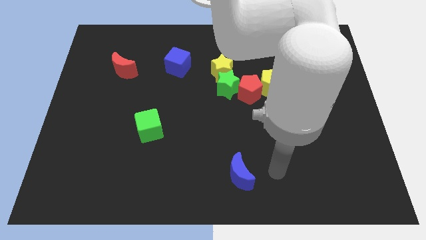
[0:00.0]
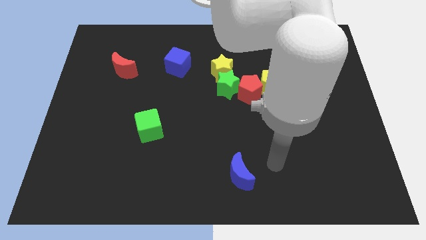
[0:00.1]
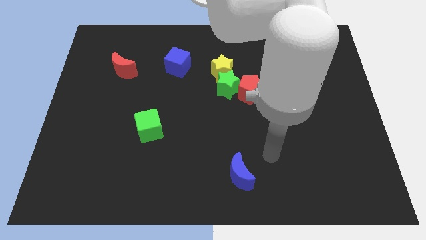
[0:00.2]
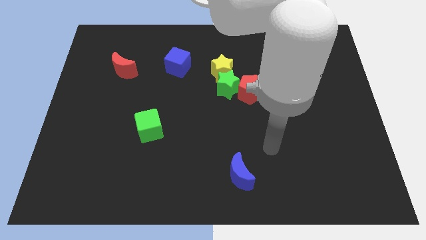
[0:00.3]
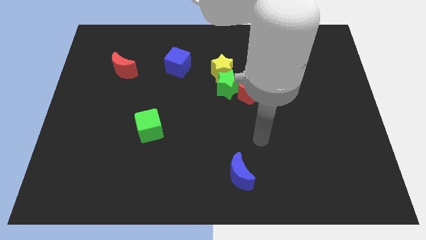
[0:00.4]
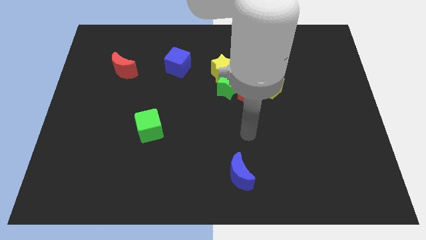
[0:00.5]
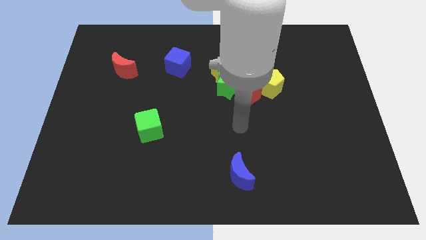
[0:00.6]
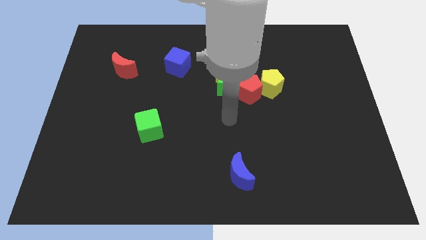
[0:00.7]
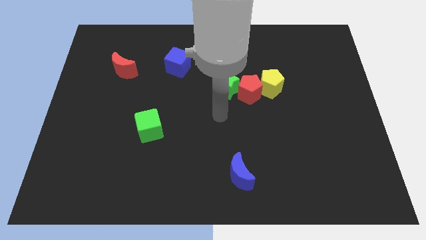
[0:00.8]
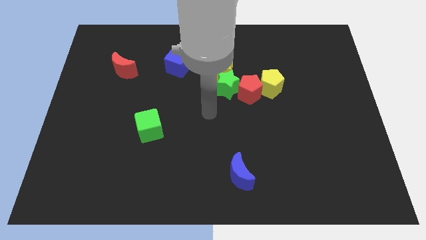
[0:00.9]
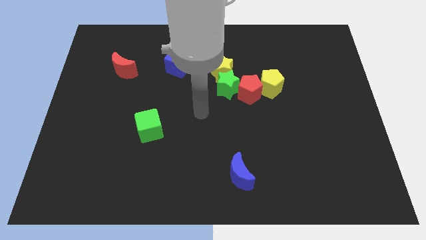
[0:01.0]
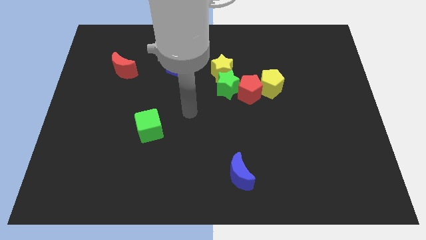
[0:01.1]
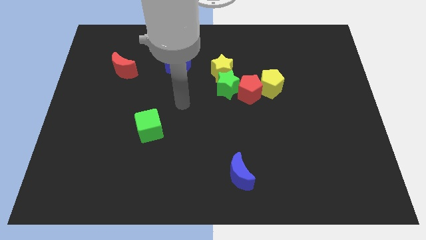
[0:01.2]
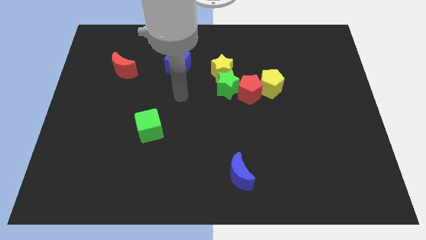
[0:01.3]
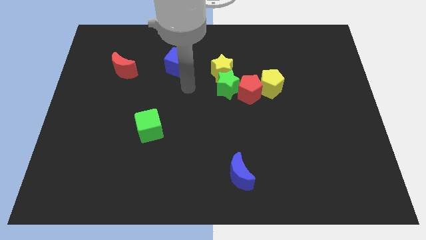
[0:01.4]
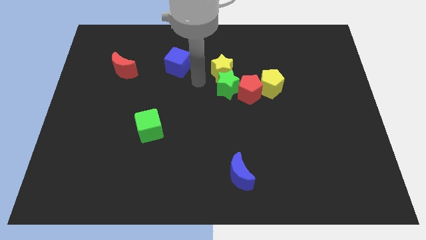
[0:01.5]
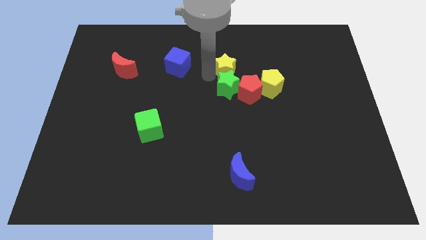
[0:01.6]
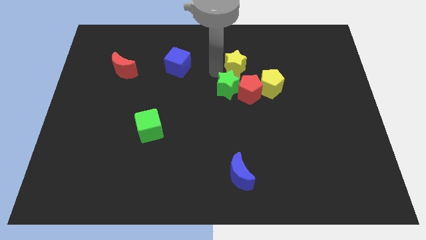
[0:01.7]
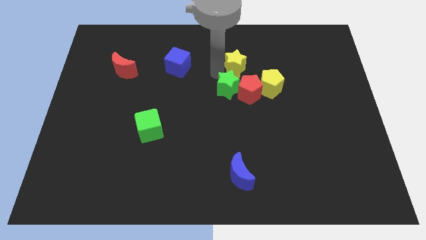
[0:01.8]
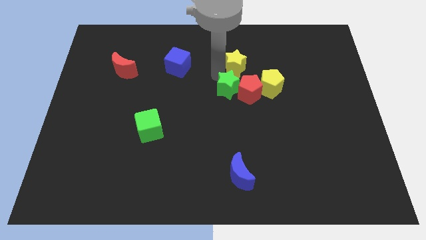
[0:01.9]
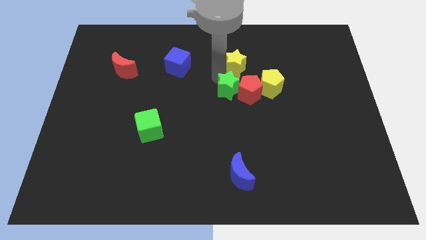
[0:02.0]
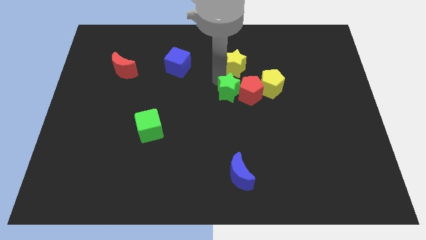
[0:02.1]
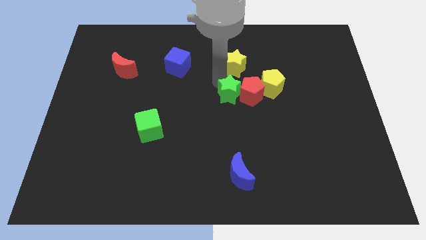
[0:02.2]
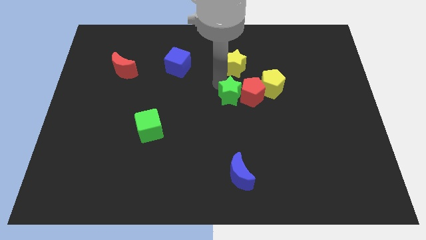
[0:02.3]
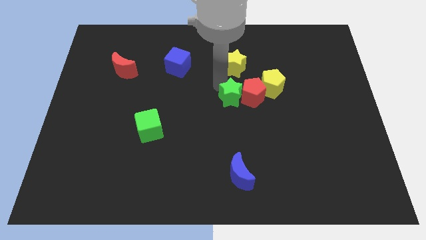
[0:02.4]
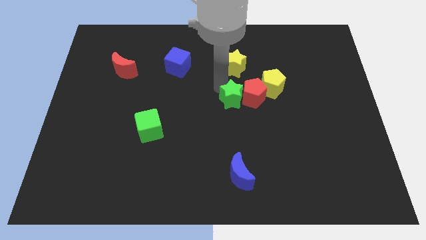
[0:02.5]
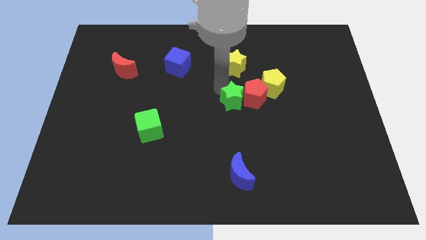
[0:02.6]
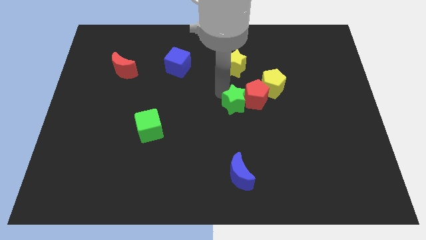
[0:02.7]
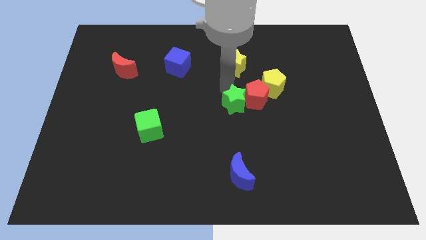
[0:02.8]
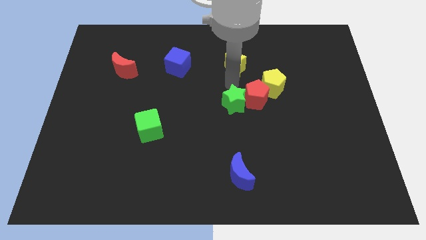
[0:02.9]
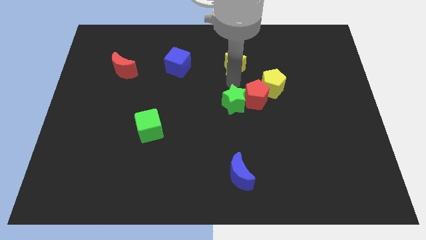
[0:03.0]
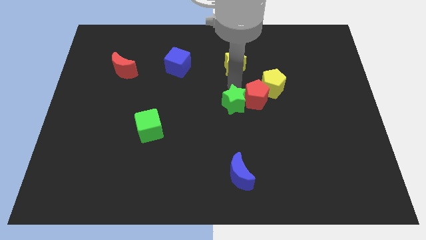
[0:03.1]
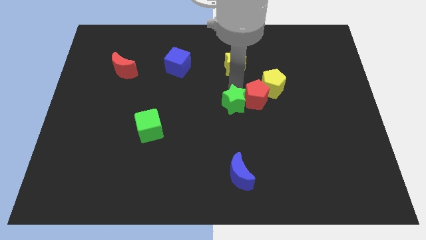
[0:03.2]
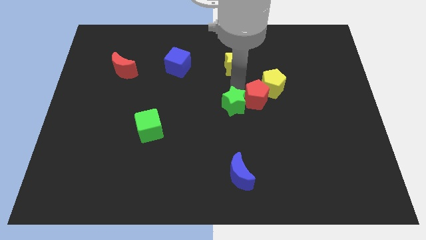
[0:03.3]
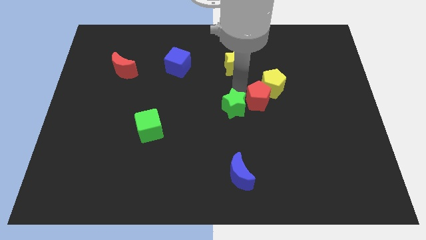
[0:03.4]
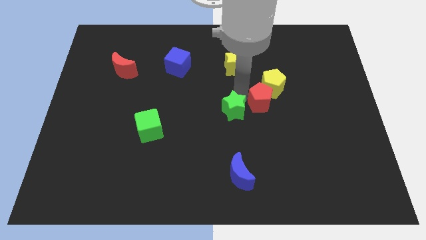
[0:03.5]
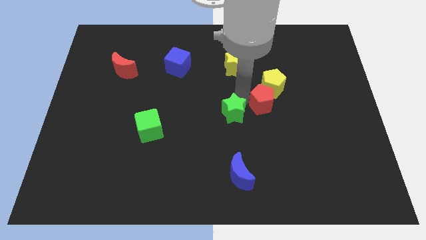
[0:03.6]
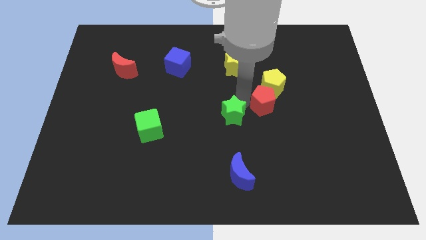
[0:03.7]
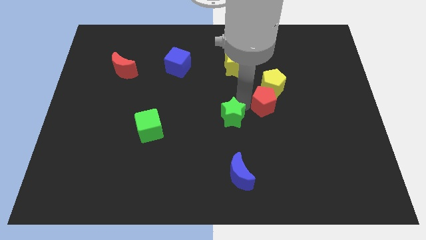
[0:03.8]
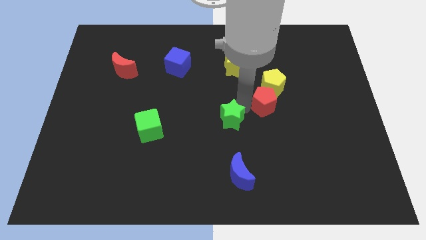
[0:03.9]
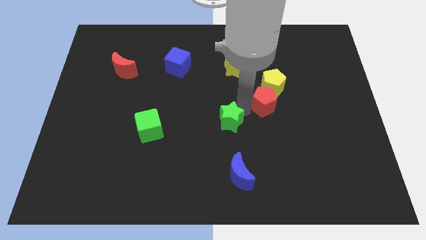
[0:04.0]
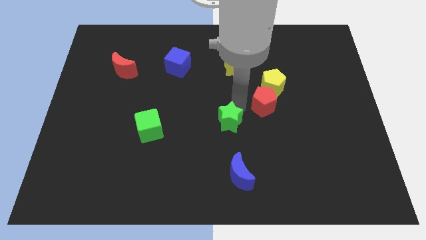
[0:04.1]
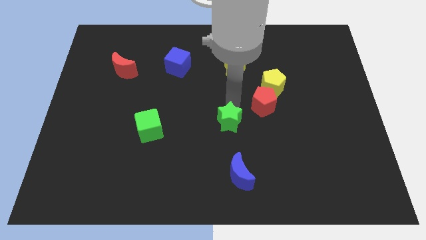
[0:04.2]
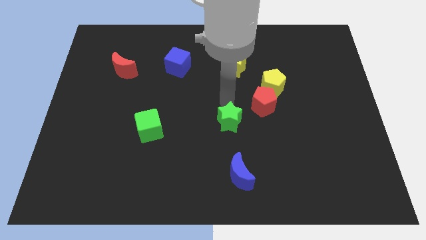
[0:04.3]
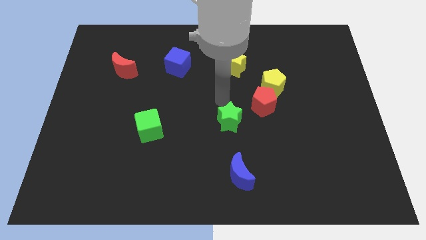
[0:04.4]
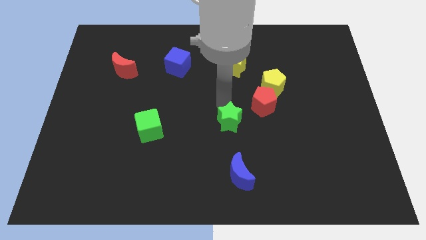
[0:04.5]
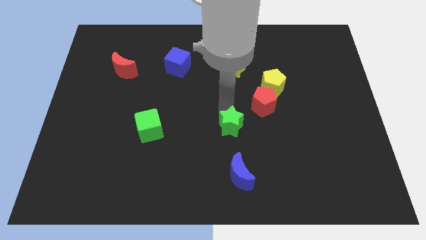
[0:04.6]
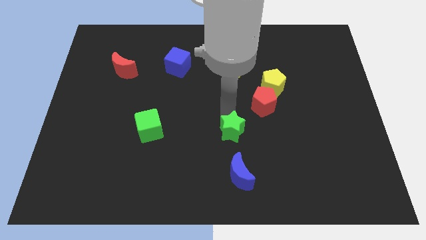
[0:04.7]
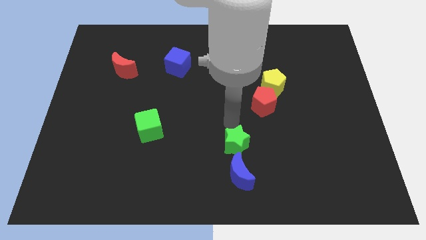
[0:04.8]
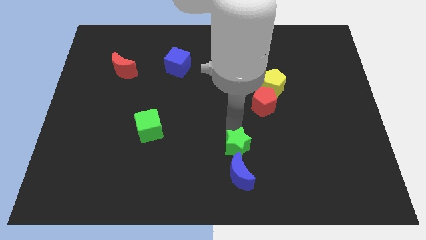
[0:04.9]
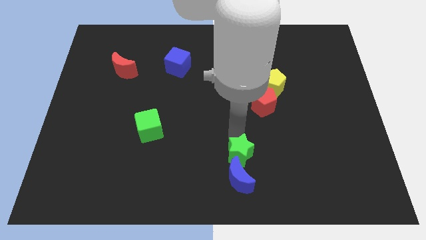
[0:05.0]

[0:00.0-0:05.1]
slide the green star close to the blue moon

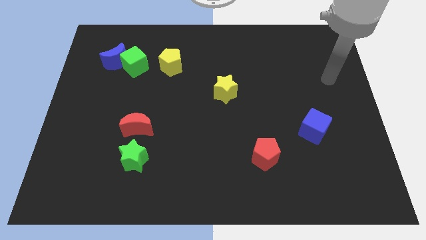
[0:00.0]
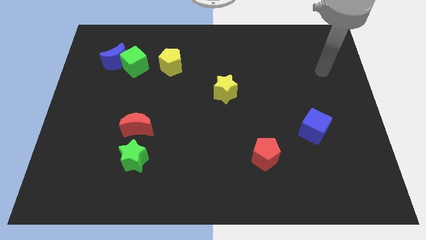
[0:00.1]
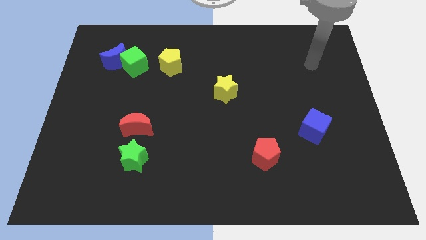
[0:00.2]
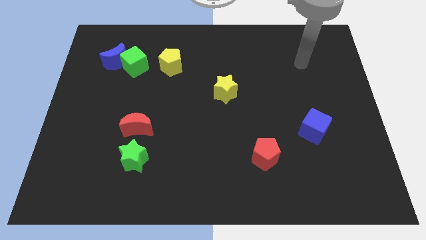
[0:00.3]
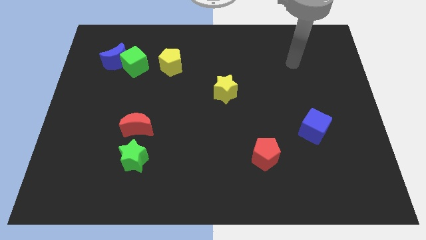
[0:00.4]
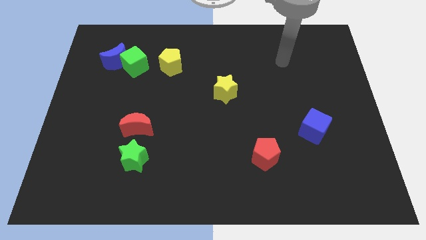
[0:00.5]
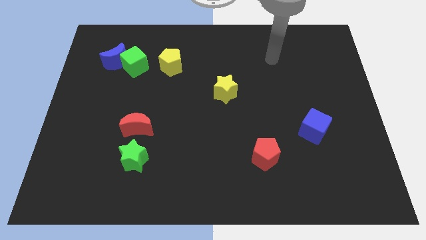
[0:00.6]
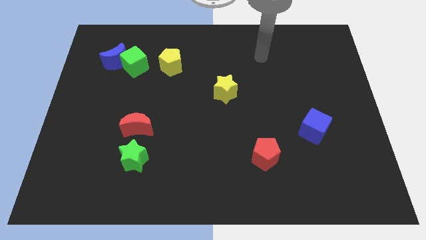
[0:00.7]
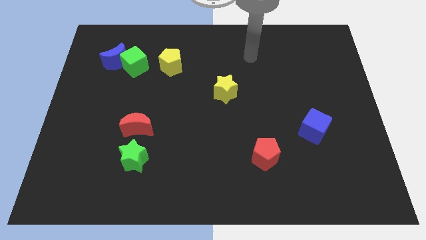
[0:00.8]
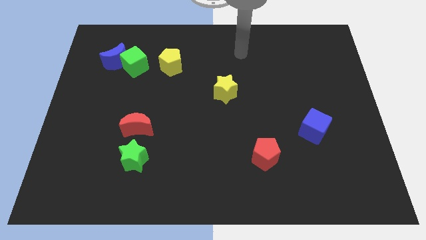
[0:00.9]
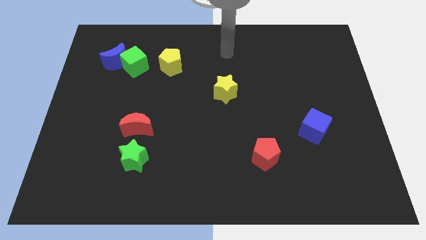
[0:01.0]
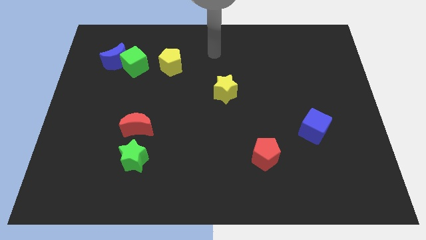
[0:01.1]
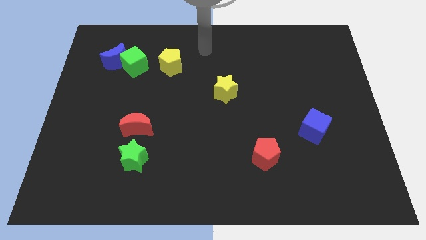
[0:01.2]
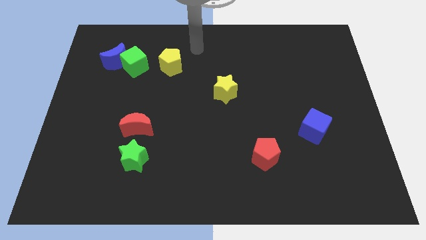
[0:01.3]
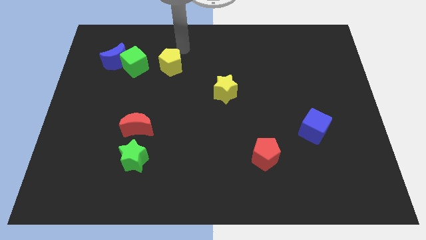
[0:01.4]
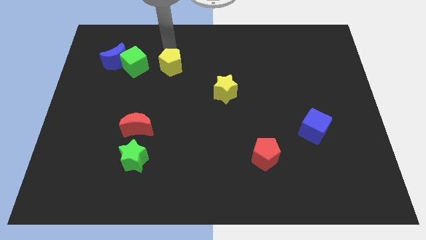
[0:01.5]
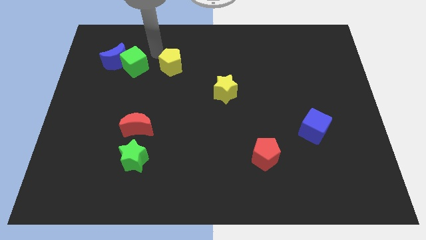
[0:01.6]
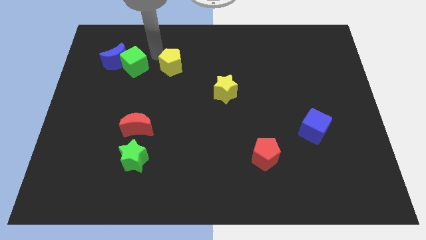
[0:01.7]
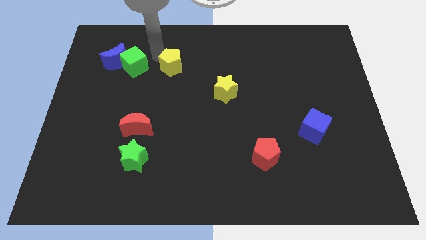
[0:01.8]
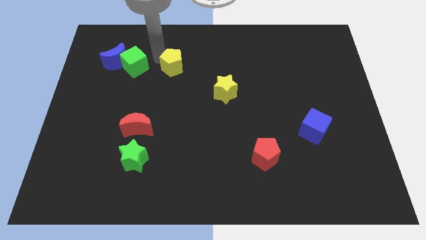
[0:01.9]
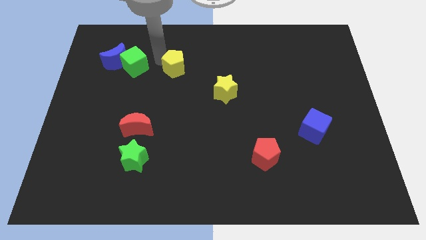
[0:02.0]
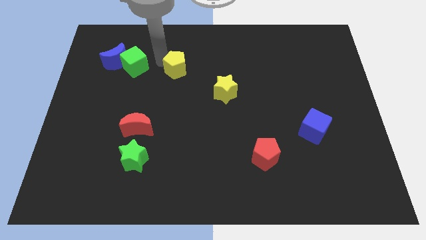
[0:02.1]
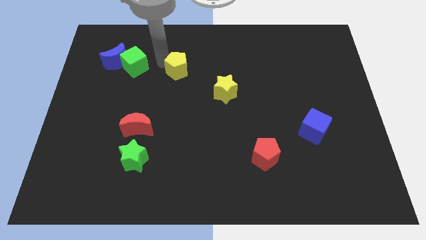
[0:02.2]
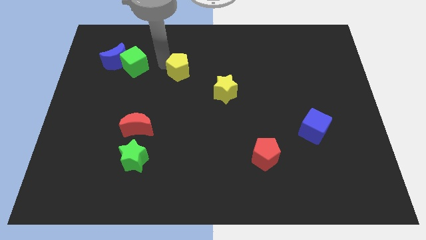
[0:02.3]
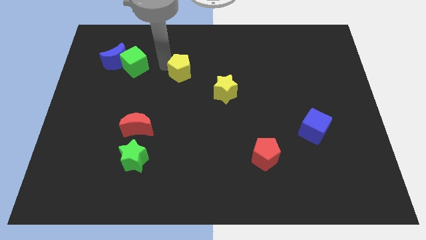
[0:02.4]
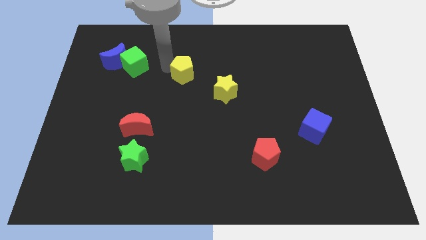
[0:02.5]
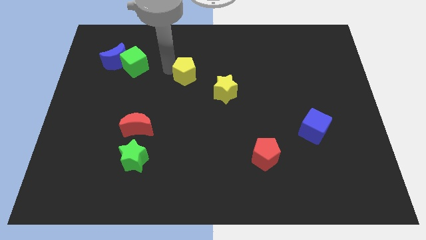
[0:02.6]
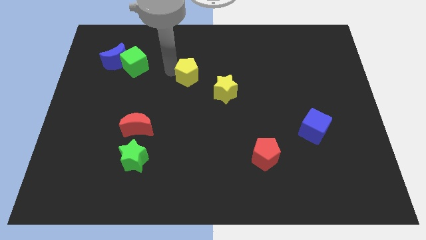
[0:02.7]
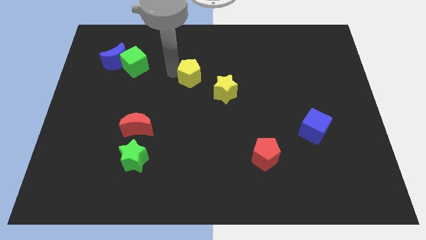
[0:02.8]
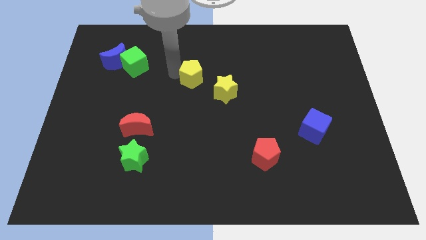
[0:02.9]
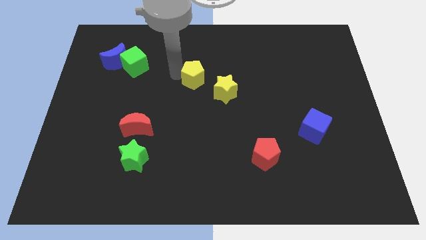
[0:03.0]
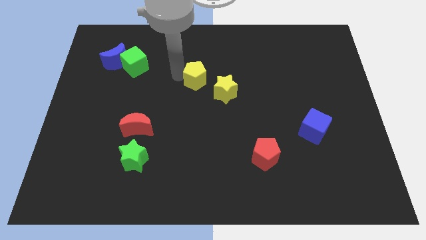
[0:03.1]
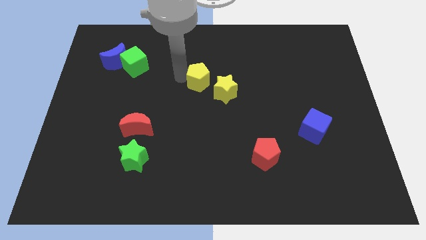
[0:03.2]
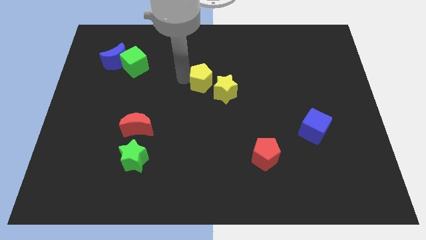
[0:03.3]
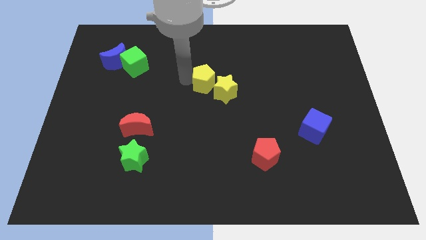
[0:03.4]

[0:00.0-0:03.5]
put the yellow pentagon next to the yellow star
